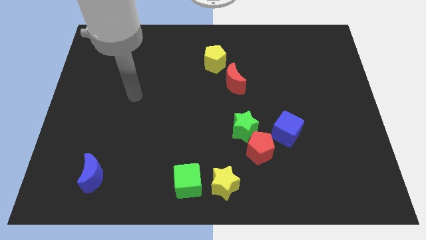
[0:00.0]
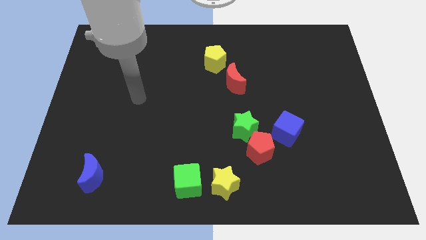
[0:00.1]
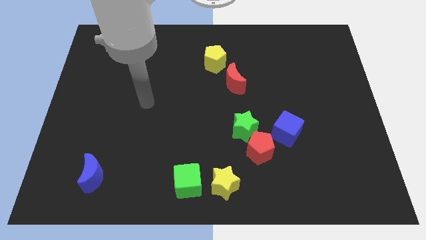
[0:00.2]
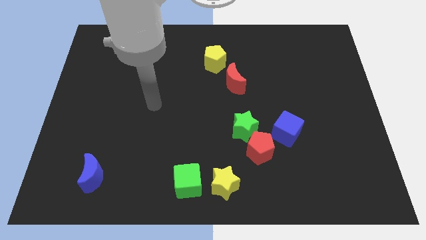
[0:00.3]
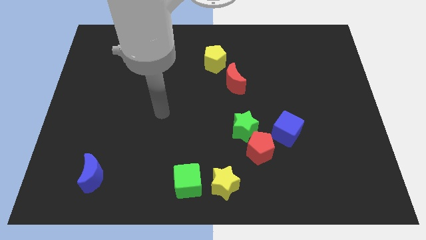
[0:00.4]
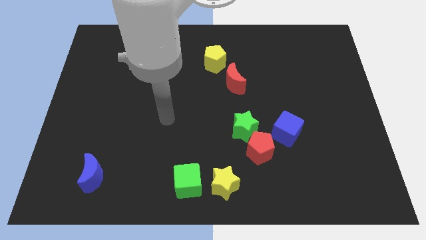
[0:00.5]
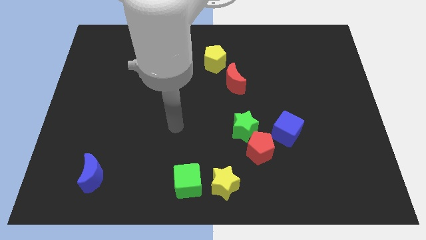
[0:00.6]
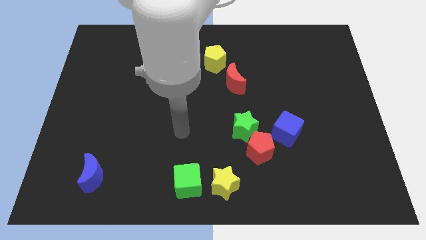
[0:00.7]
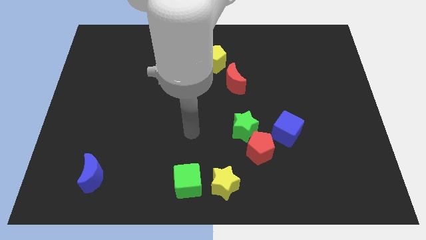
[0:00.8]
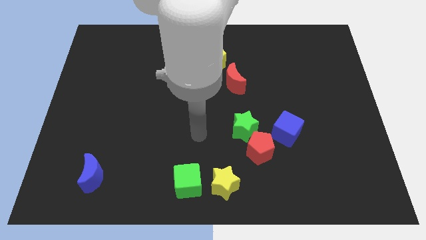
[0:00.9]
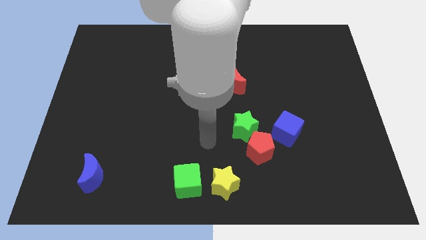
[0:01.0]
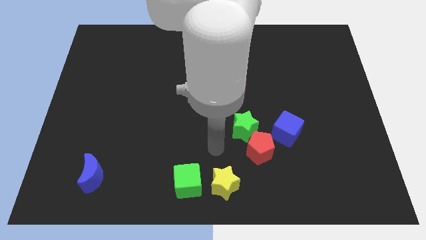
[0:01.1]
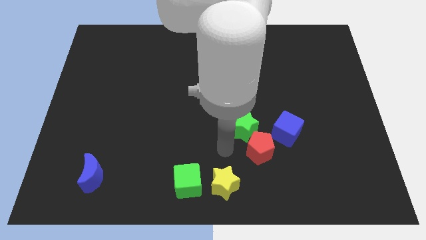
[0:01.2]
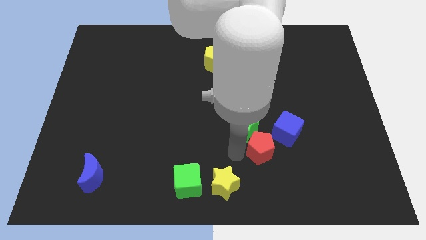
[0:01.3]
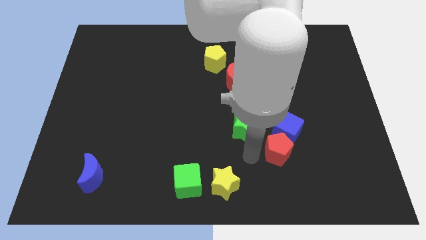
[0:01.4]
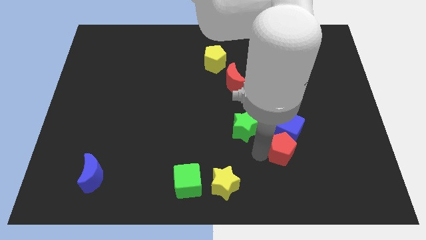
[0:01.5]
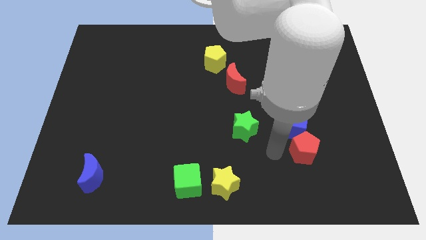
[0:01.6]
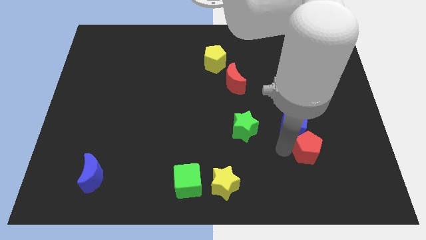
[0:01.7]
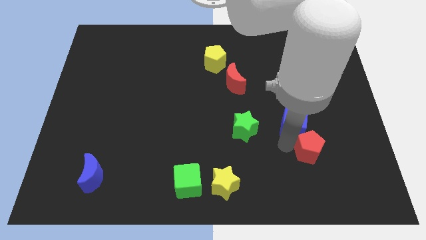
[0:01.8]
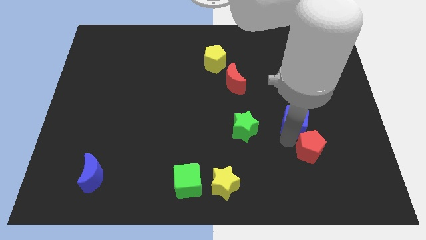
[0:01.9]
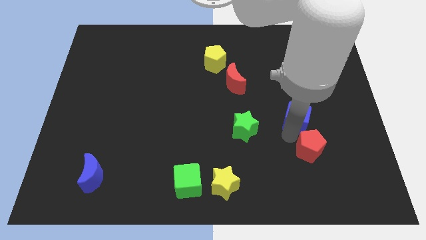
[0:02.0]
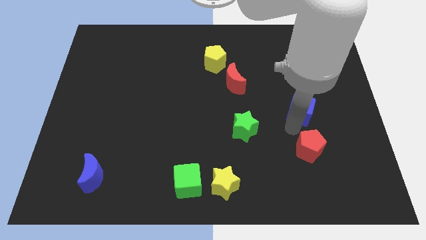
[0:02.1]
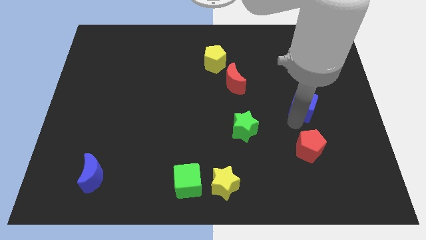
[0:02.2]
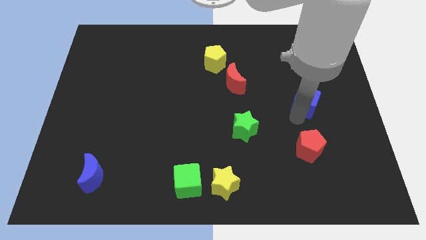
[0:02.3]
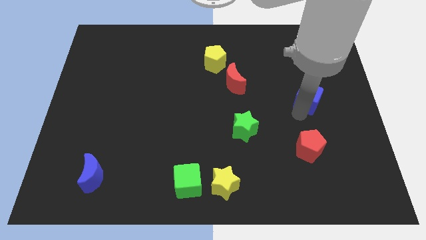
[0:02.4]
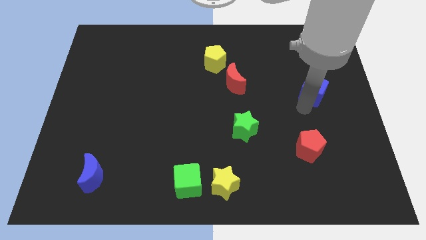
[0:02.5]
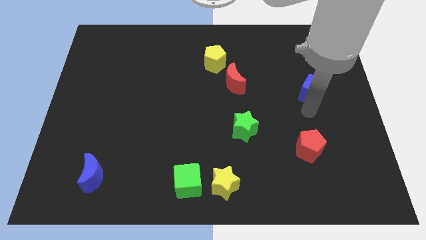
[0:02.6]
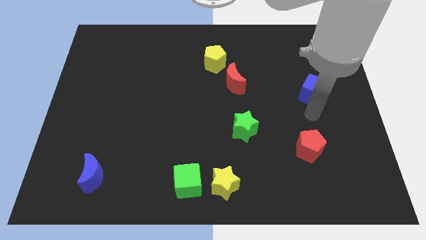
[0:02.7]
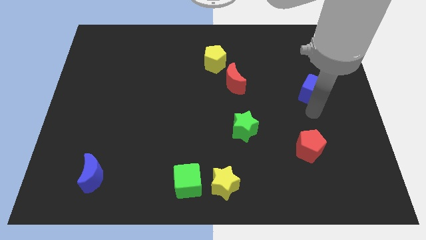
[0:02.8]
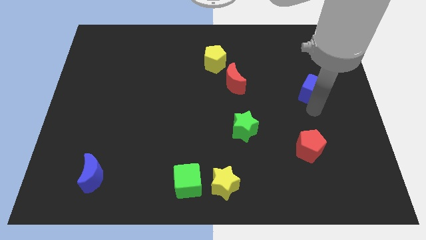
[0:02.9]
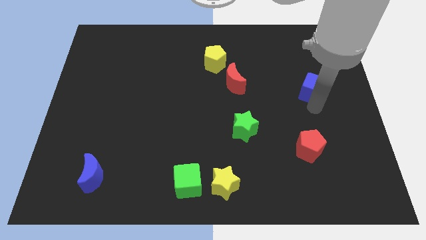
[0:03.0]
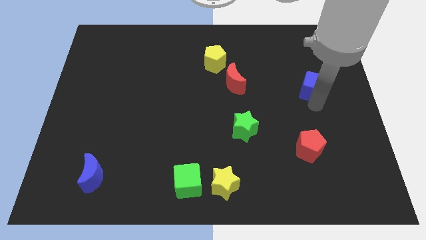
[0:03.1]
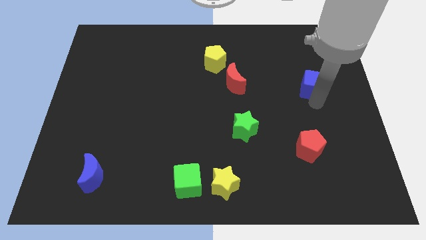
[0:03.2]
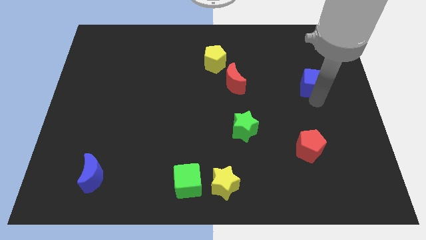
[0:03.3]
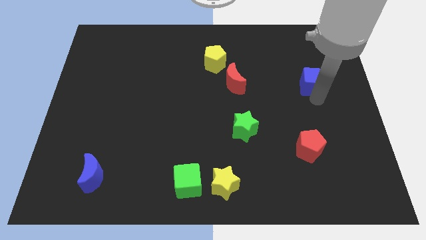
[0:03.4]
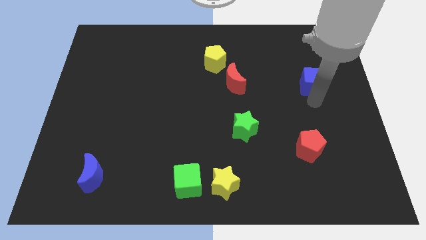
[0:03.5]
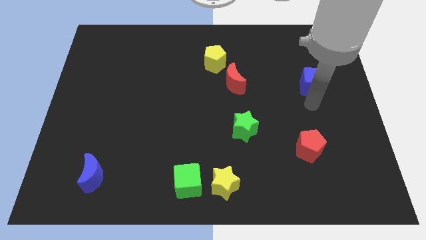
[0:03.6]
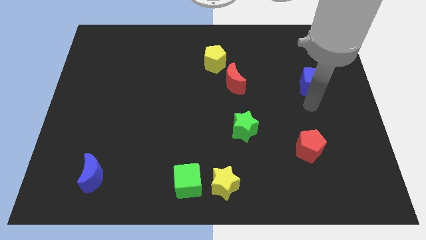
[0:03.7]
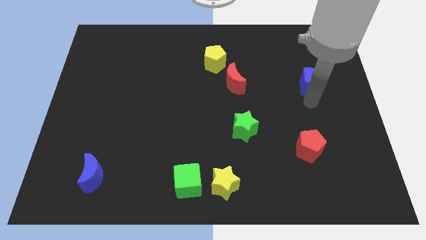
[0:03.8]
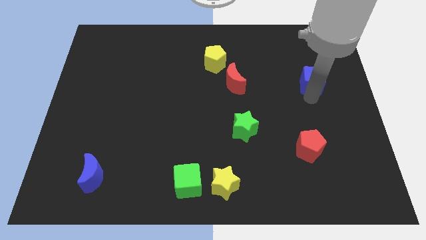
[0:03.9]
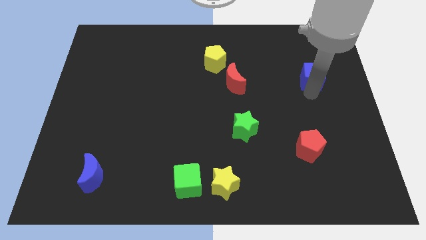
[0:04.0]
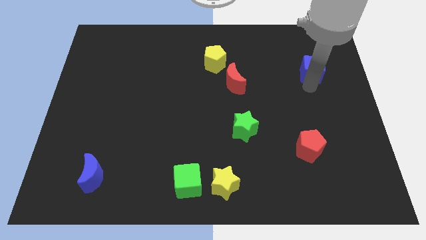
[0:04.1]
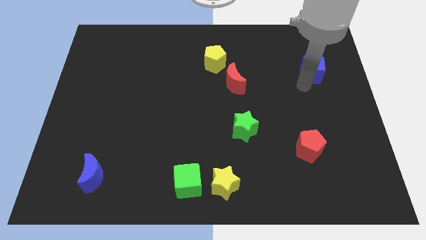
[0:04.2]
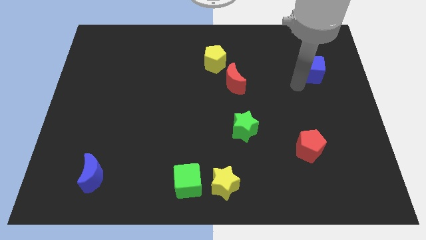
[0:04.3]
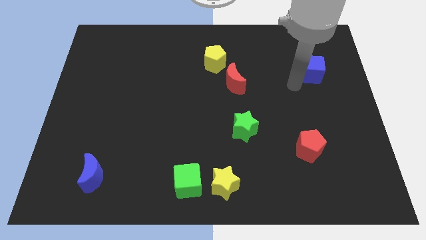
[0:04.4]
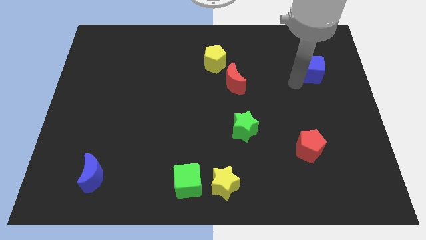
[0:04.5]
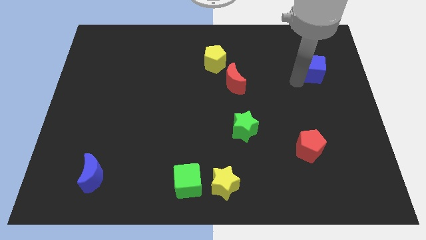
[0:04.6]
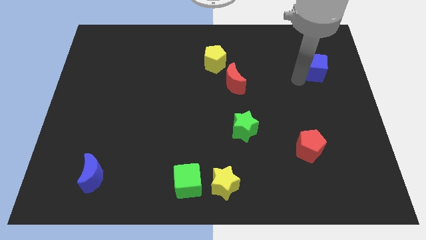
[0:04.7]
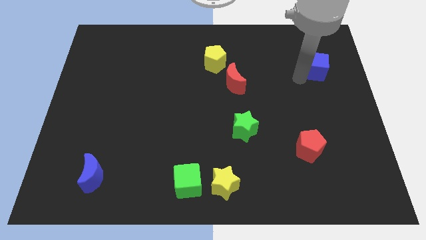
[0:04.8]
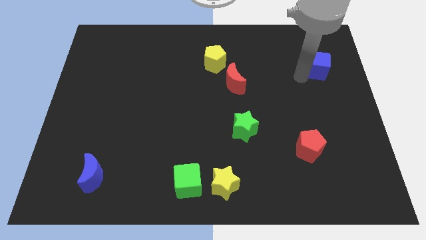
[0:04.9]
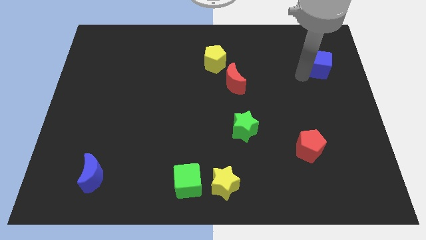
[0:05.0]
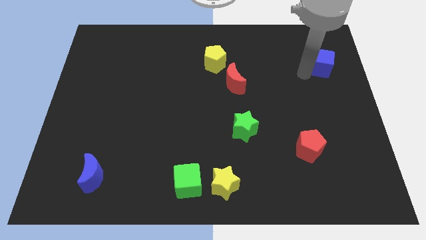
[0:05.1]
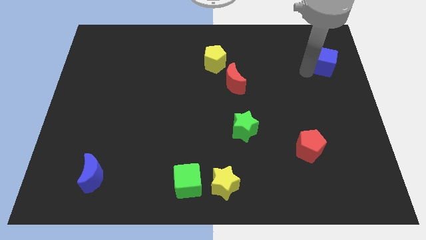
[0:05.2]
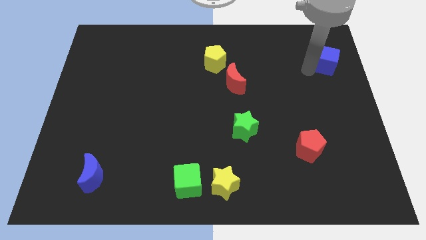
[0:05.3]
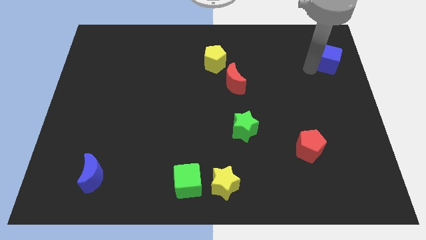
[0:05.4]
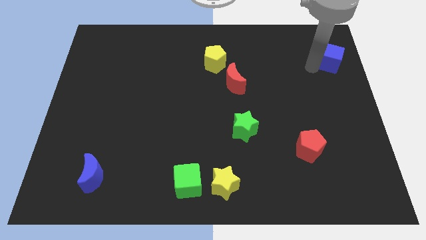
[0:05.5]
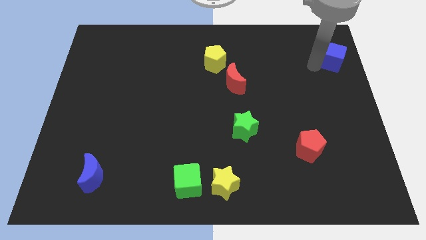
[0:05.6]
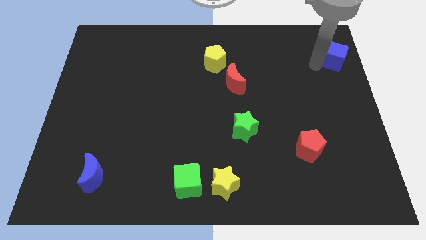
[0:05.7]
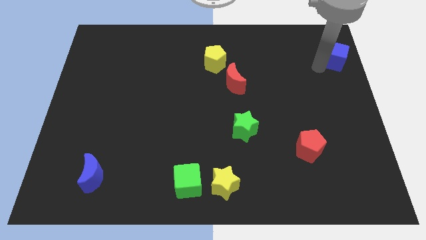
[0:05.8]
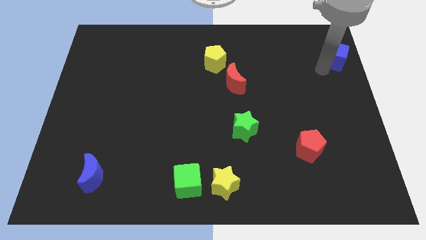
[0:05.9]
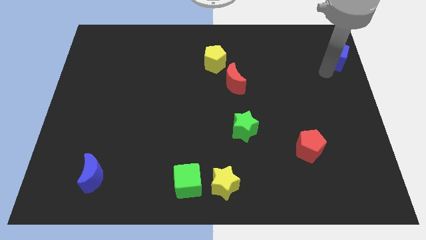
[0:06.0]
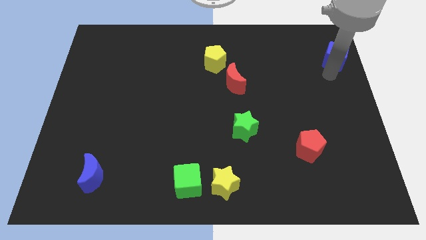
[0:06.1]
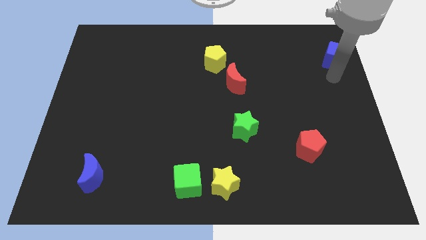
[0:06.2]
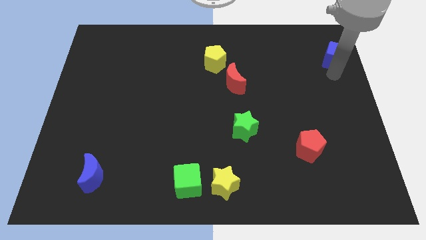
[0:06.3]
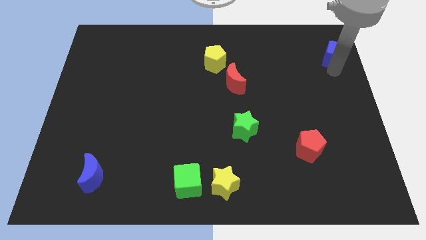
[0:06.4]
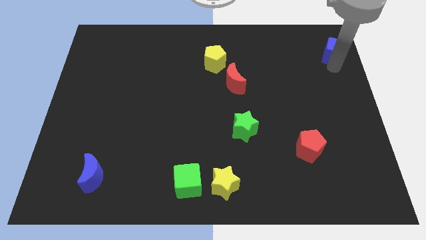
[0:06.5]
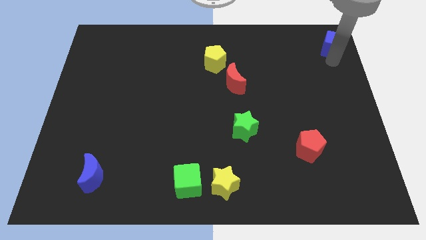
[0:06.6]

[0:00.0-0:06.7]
move the blue cube to the top right of the board
